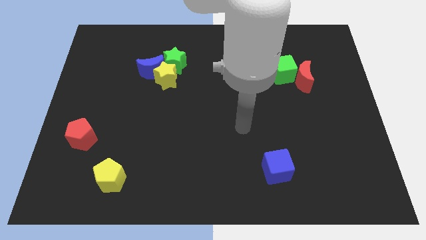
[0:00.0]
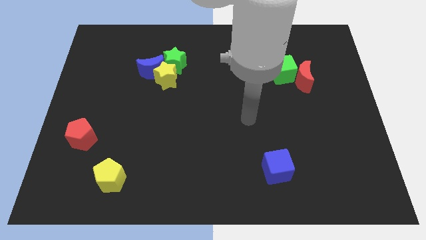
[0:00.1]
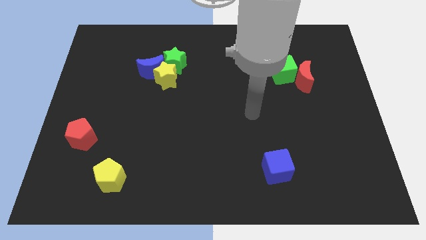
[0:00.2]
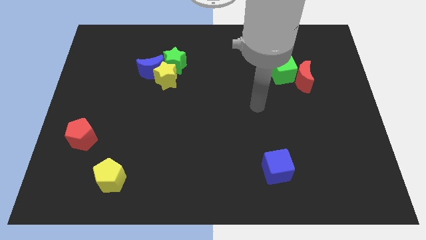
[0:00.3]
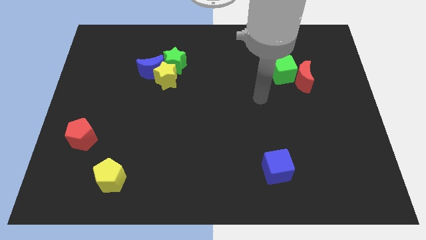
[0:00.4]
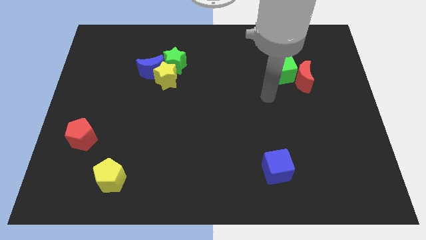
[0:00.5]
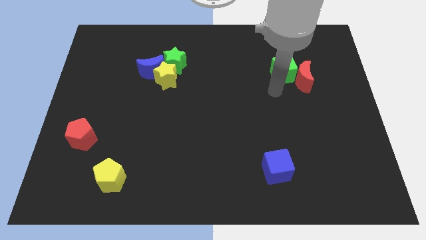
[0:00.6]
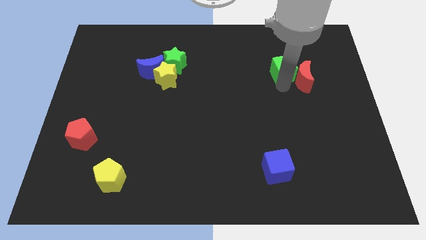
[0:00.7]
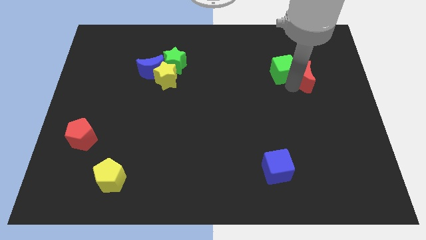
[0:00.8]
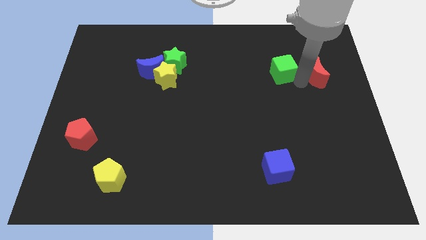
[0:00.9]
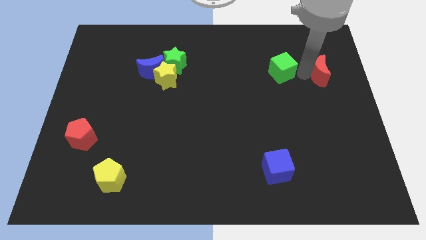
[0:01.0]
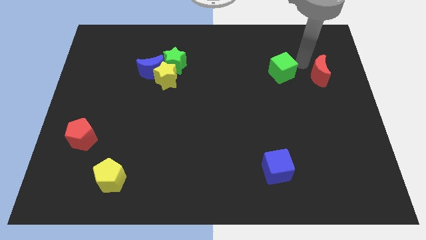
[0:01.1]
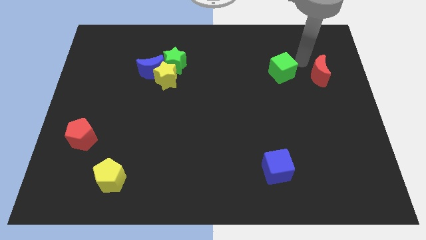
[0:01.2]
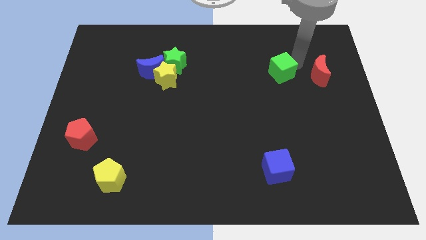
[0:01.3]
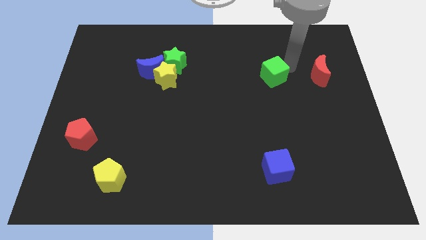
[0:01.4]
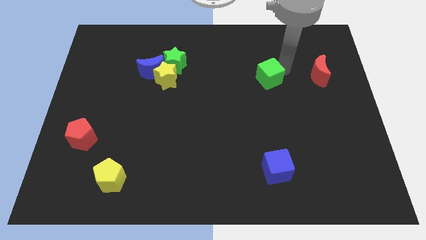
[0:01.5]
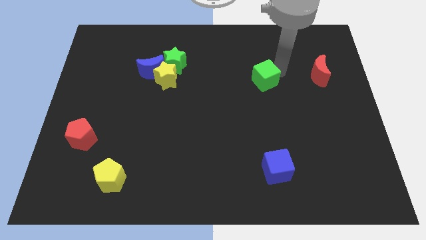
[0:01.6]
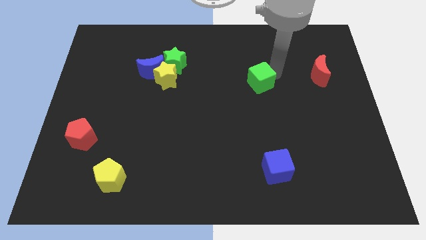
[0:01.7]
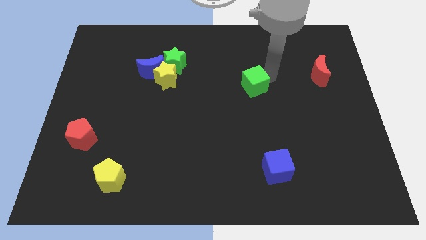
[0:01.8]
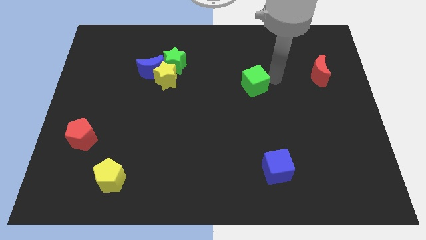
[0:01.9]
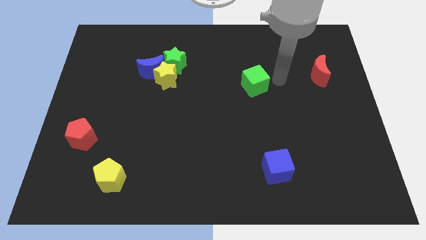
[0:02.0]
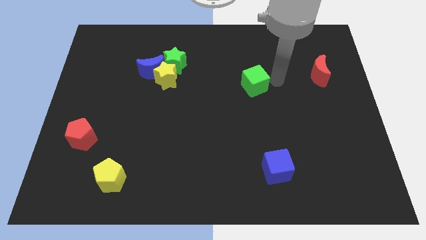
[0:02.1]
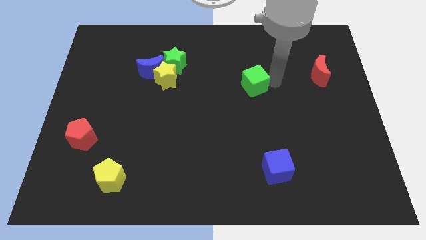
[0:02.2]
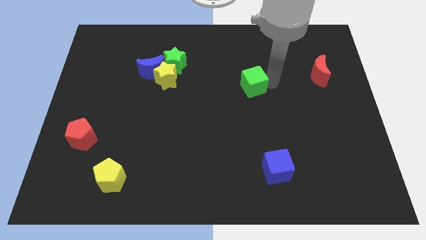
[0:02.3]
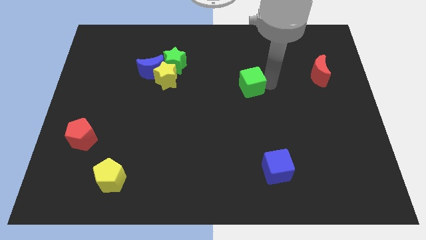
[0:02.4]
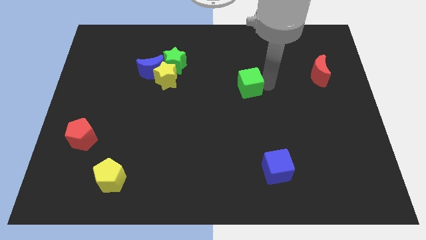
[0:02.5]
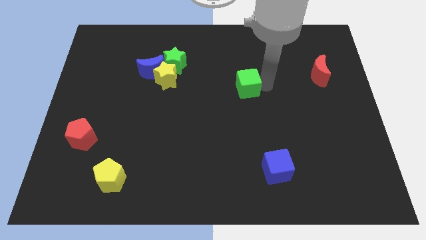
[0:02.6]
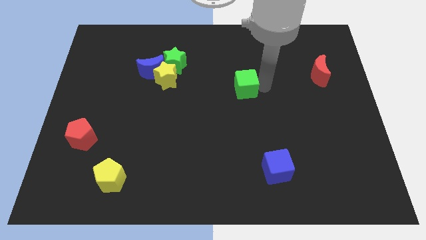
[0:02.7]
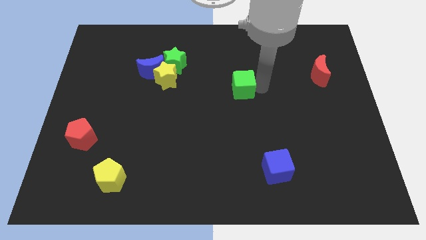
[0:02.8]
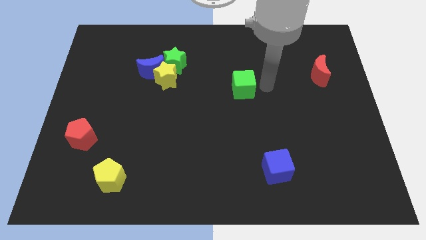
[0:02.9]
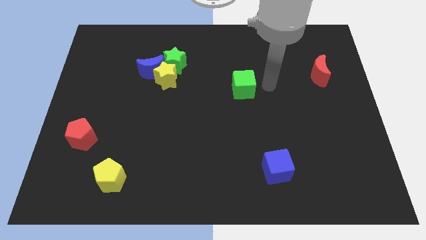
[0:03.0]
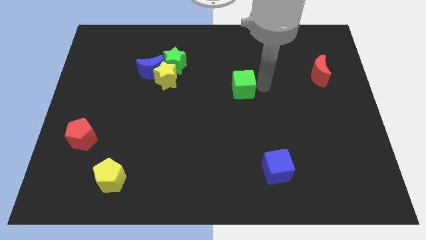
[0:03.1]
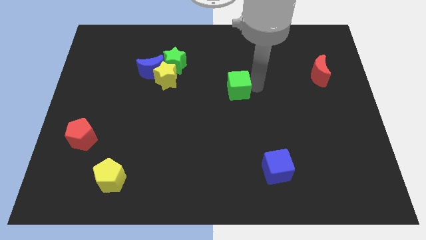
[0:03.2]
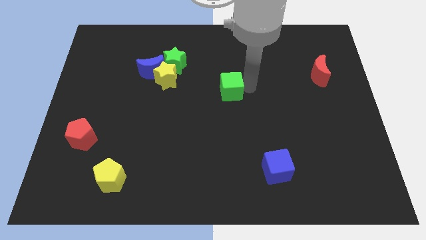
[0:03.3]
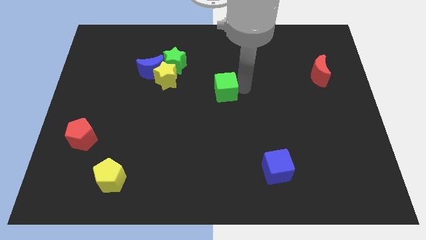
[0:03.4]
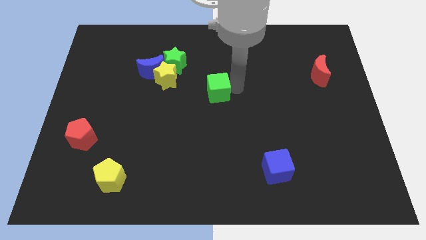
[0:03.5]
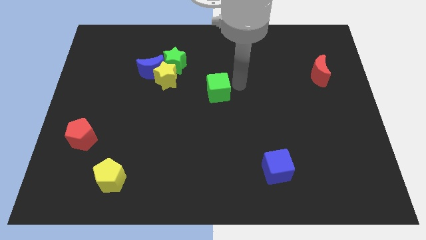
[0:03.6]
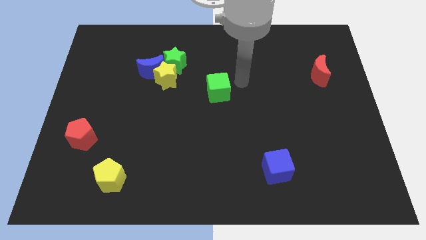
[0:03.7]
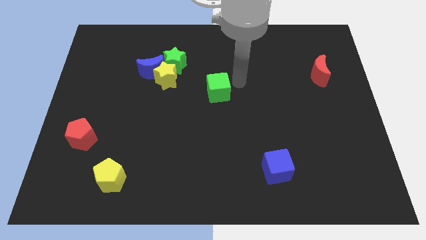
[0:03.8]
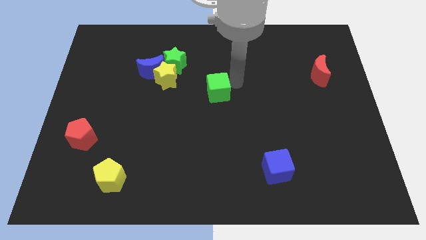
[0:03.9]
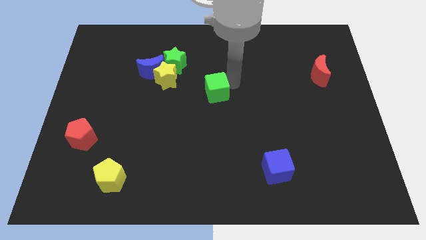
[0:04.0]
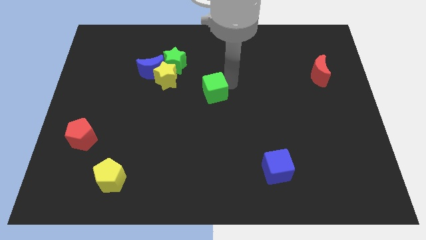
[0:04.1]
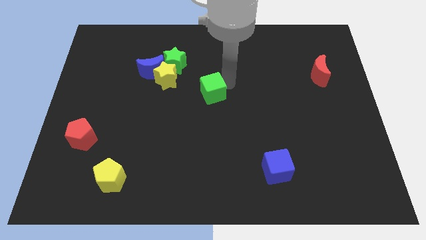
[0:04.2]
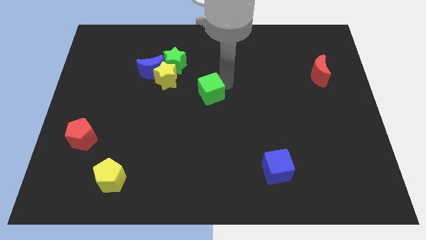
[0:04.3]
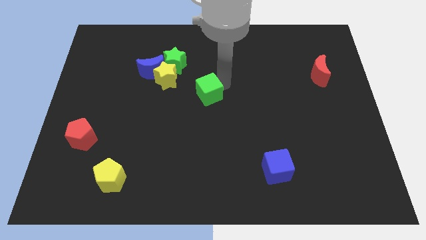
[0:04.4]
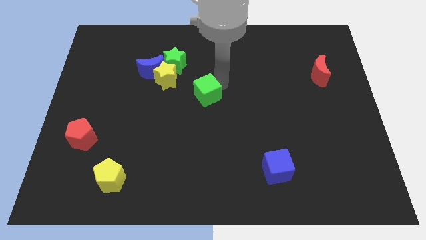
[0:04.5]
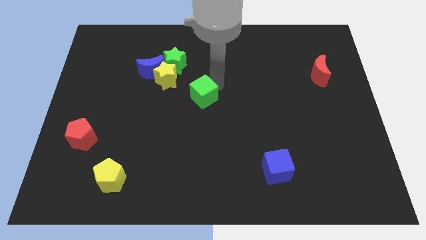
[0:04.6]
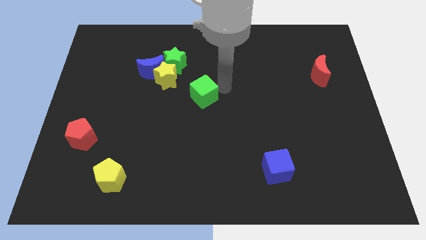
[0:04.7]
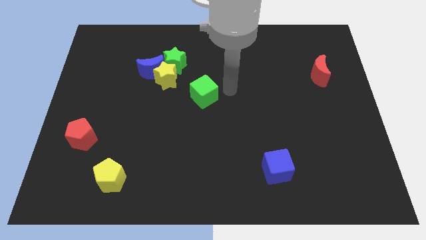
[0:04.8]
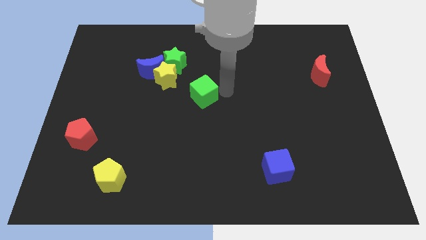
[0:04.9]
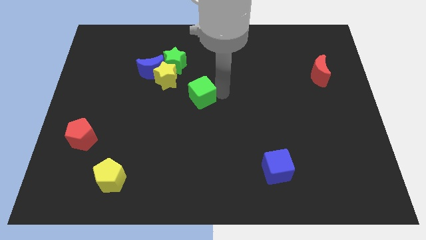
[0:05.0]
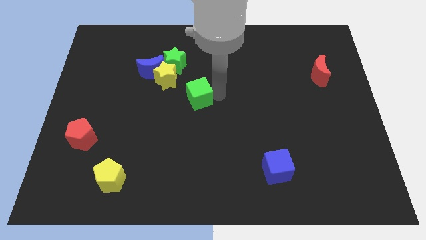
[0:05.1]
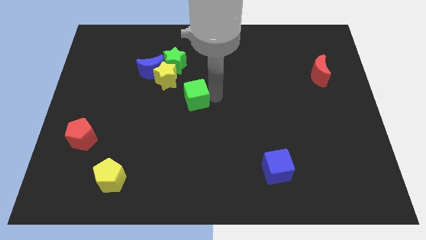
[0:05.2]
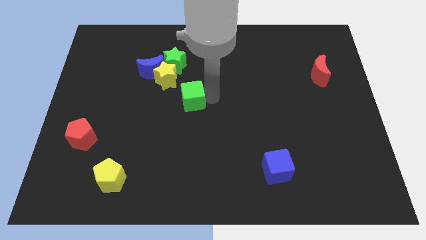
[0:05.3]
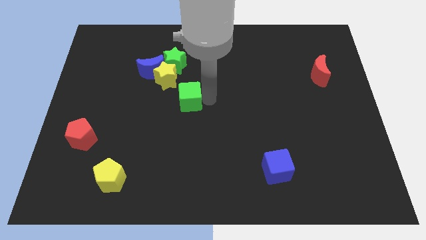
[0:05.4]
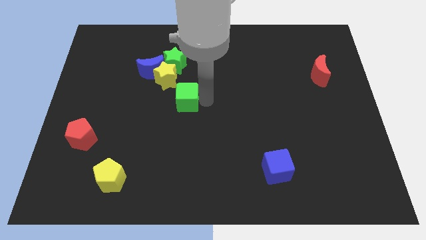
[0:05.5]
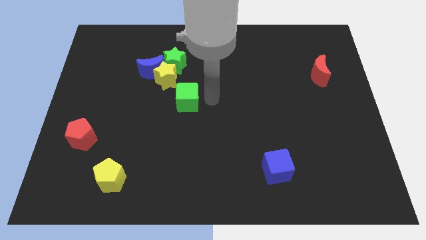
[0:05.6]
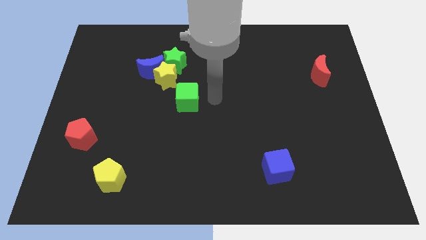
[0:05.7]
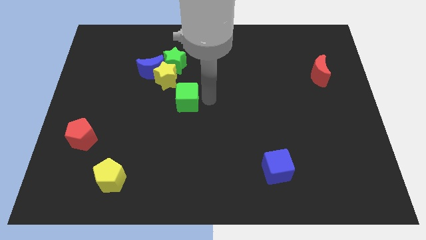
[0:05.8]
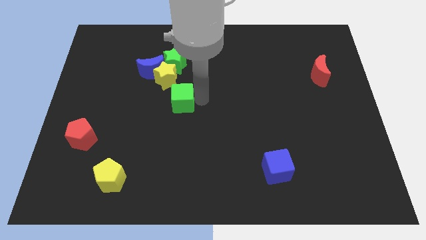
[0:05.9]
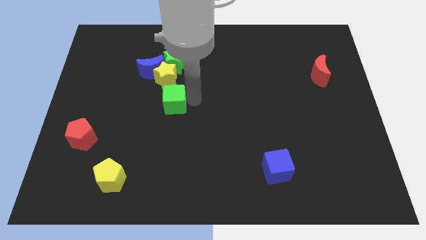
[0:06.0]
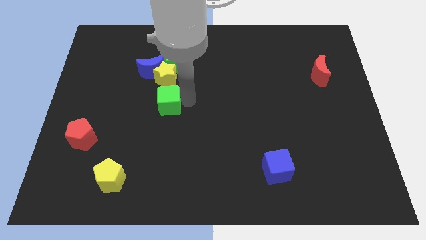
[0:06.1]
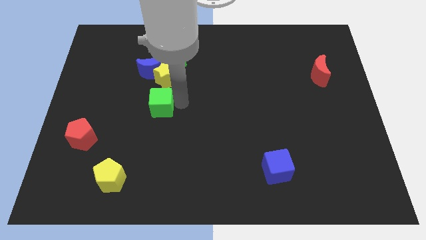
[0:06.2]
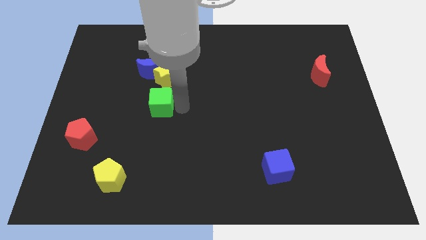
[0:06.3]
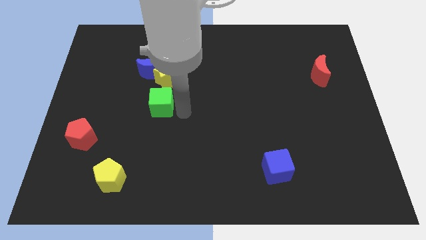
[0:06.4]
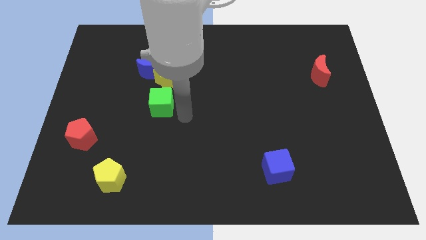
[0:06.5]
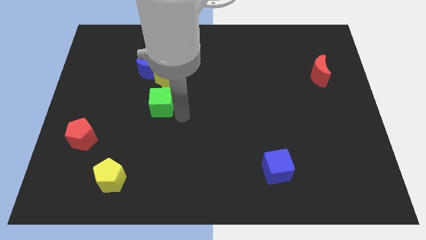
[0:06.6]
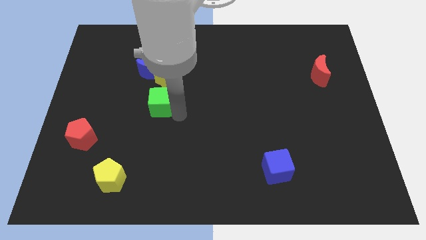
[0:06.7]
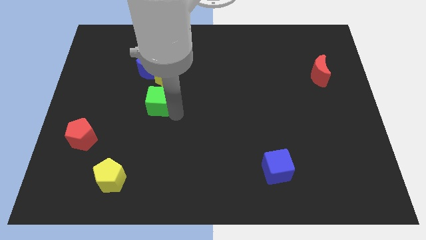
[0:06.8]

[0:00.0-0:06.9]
slide the green cube to the bottom left of the yellow star

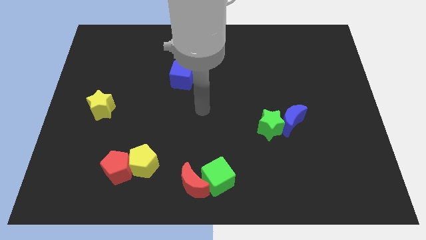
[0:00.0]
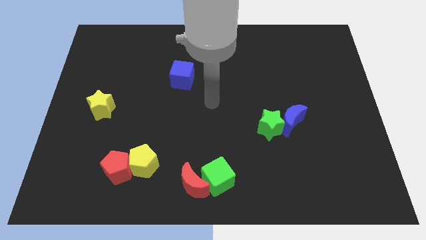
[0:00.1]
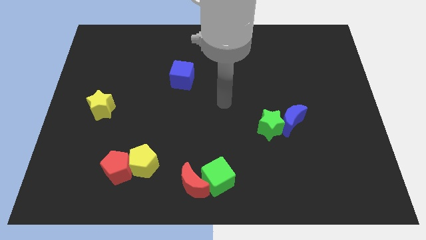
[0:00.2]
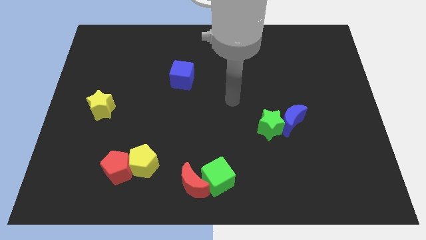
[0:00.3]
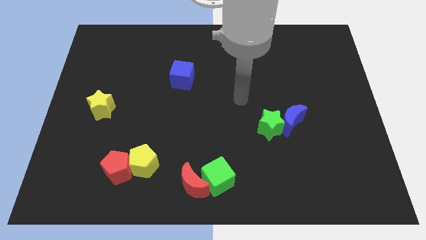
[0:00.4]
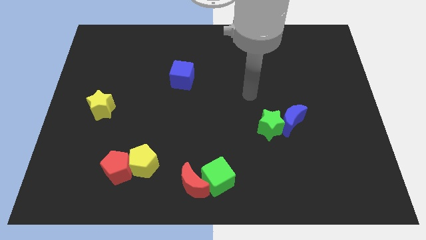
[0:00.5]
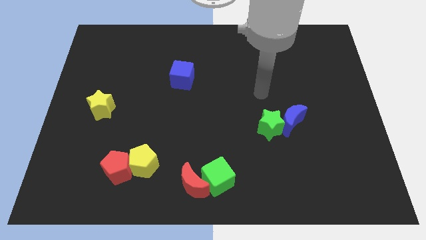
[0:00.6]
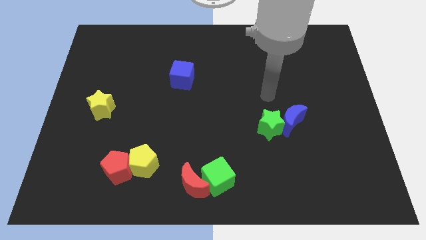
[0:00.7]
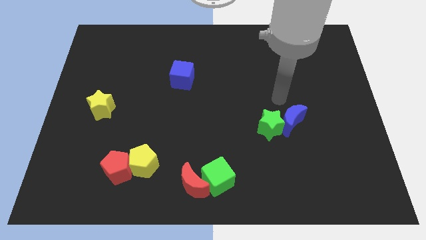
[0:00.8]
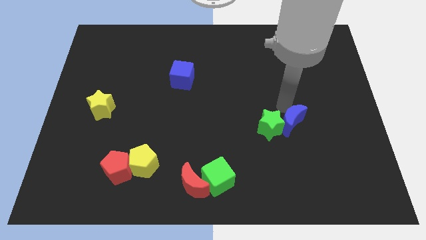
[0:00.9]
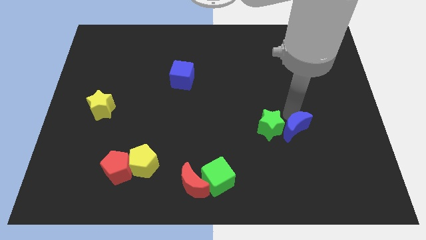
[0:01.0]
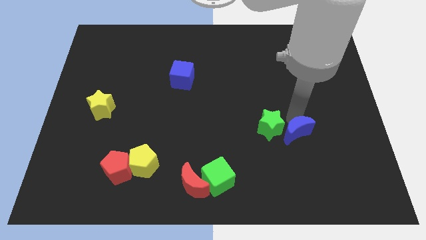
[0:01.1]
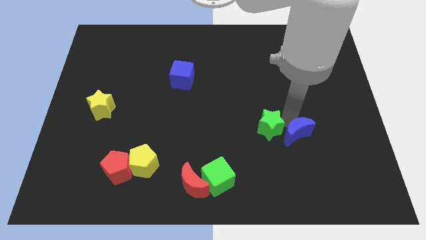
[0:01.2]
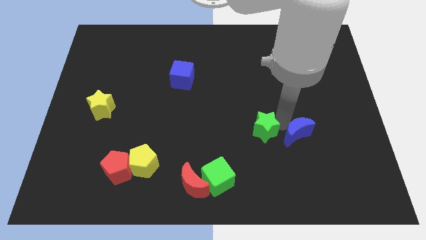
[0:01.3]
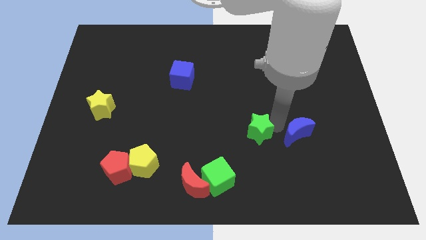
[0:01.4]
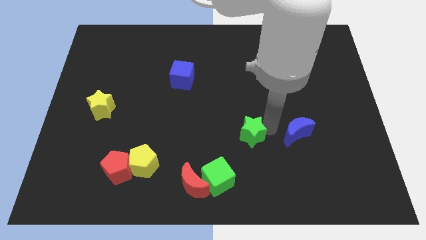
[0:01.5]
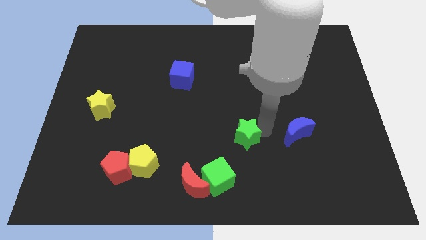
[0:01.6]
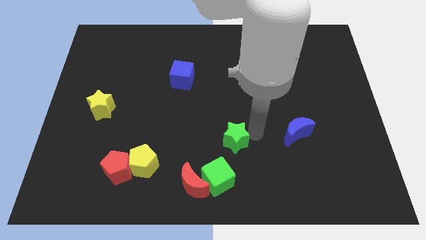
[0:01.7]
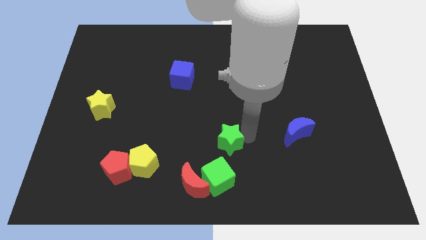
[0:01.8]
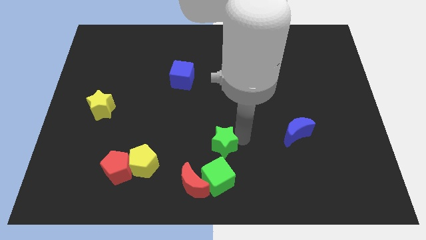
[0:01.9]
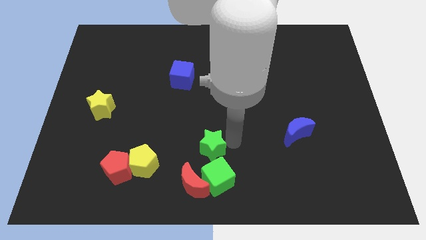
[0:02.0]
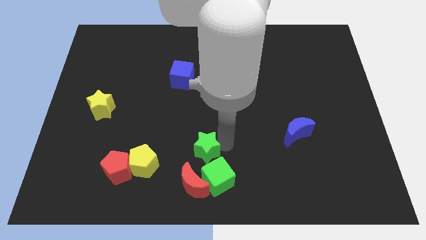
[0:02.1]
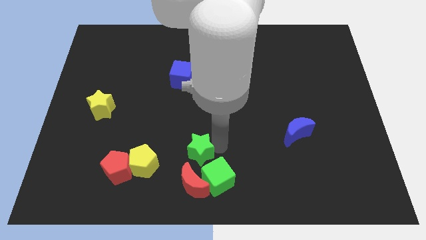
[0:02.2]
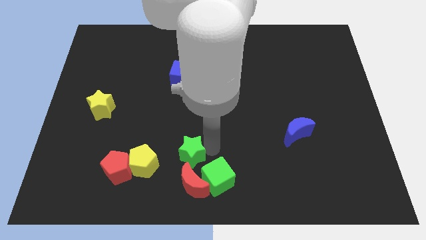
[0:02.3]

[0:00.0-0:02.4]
move the green star to the top left side of the red moon
